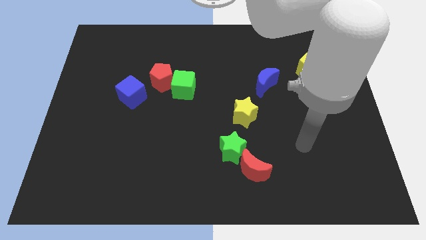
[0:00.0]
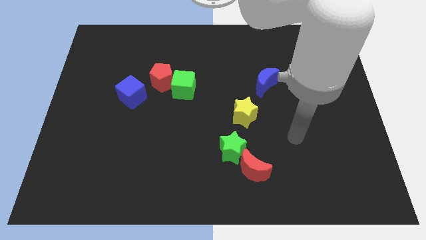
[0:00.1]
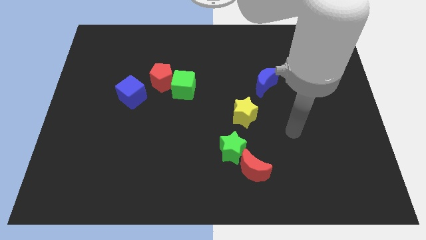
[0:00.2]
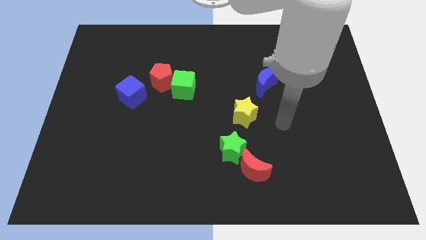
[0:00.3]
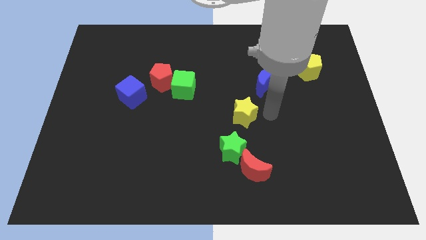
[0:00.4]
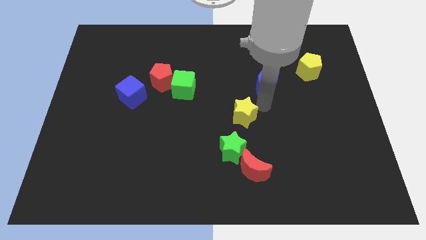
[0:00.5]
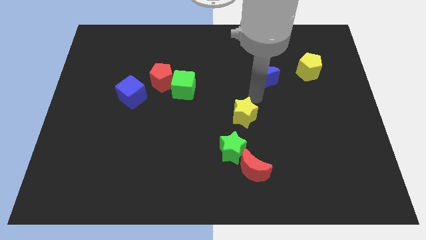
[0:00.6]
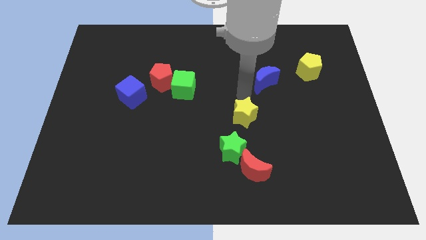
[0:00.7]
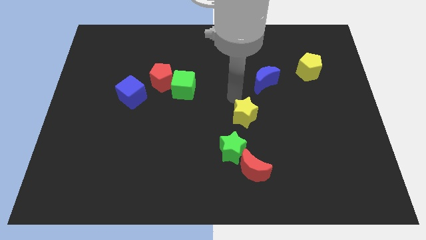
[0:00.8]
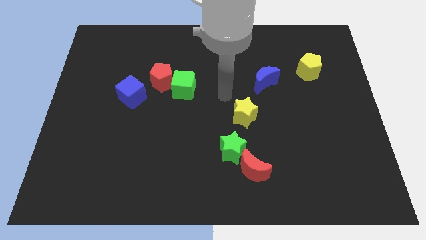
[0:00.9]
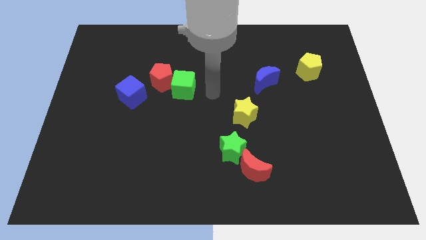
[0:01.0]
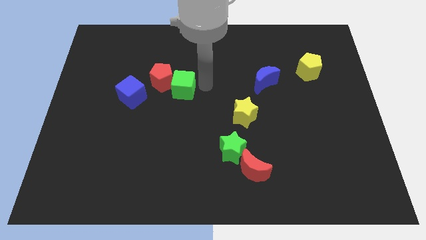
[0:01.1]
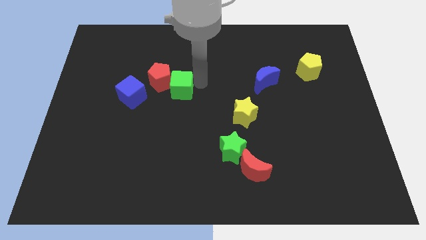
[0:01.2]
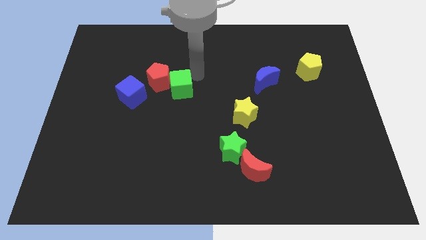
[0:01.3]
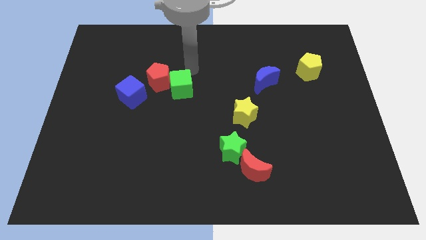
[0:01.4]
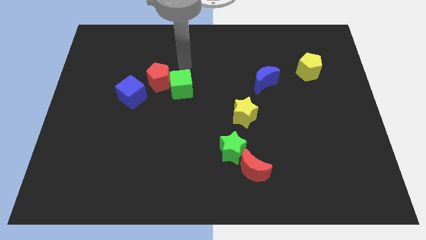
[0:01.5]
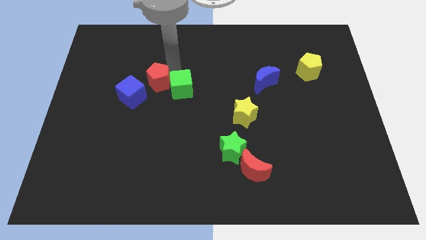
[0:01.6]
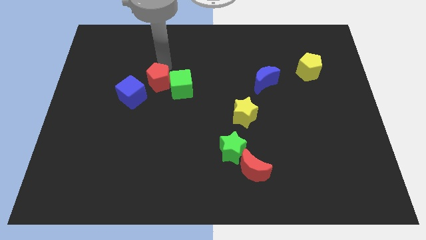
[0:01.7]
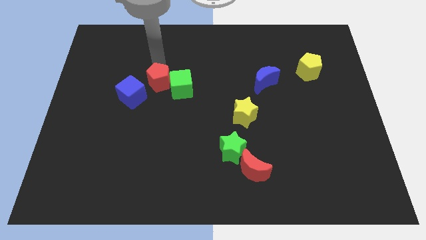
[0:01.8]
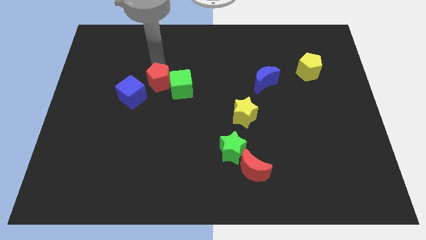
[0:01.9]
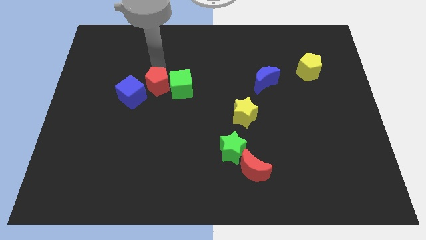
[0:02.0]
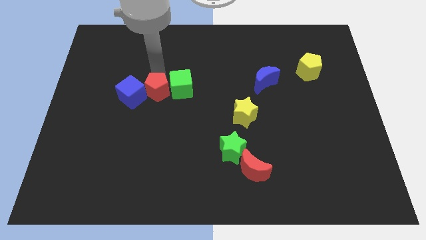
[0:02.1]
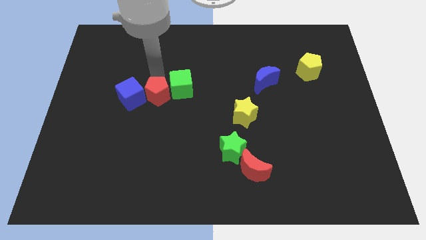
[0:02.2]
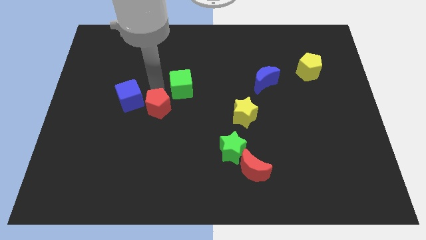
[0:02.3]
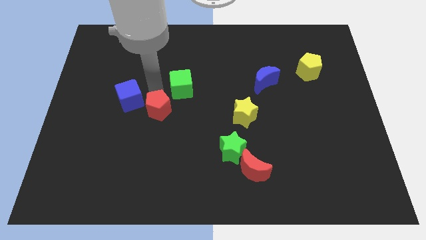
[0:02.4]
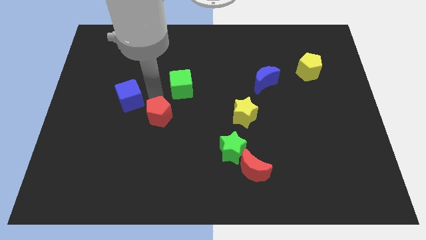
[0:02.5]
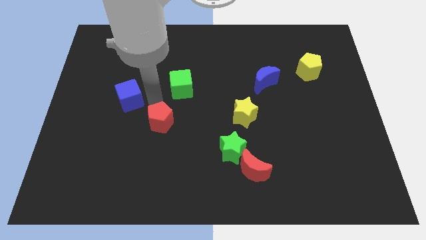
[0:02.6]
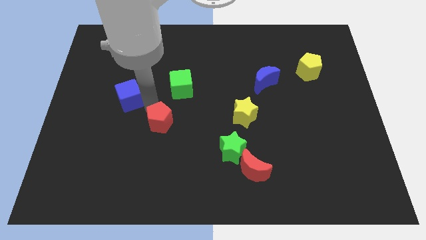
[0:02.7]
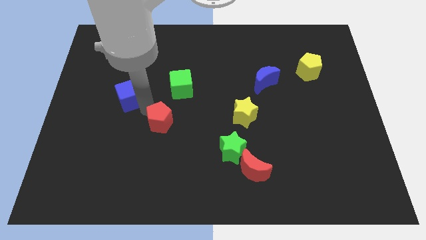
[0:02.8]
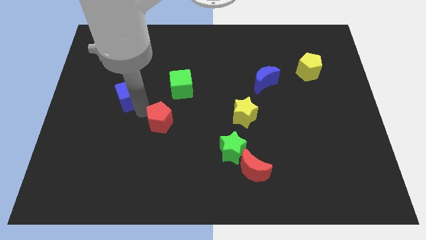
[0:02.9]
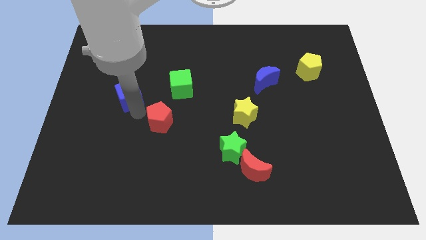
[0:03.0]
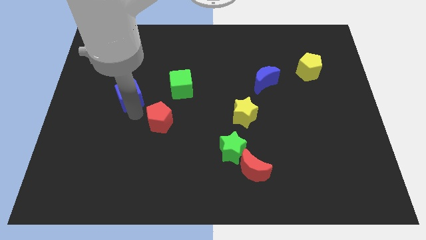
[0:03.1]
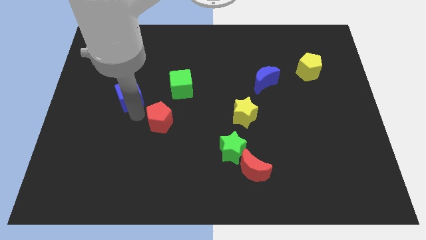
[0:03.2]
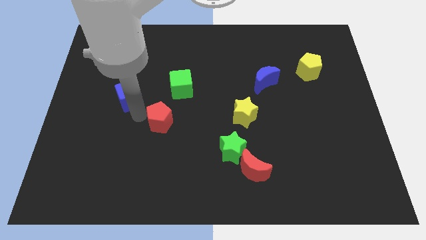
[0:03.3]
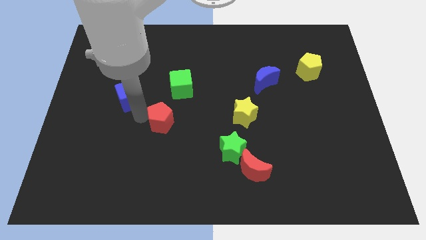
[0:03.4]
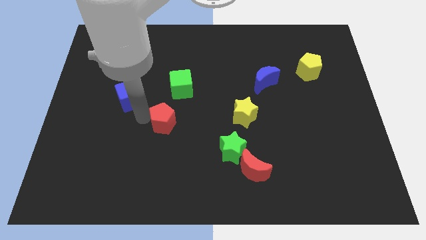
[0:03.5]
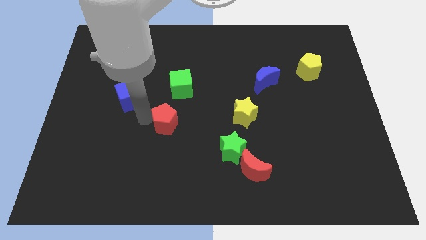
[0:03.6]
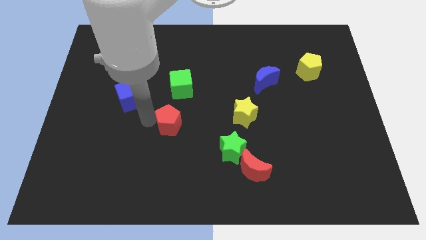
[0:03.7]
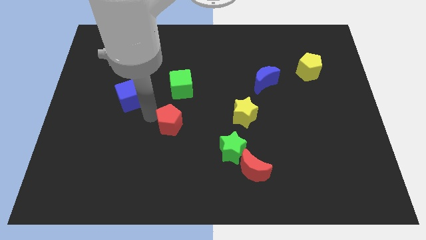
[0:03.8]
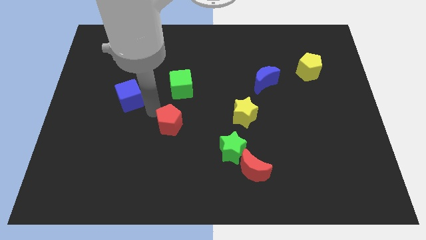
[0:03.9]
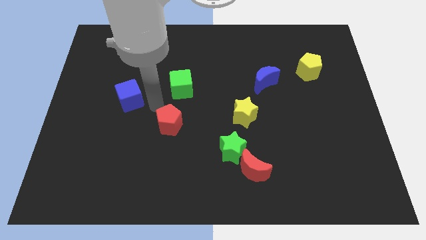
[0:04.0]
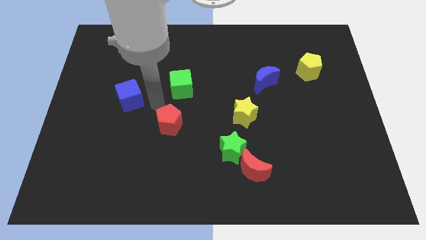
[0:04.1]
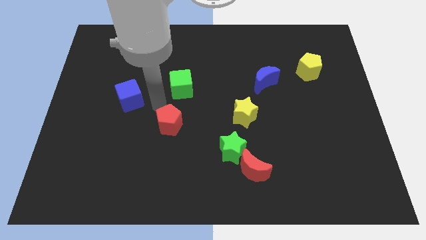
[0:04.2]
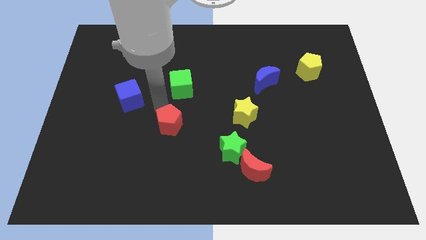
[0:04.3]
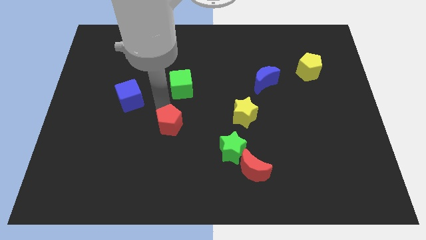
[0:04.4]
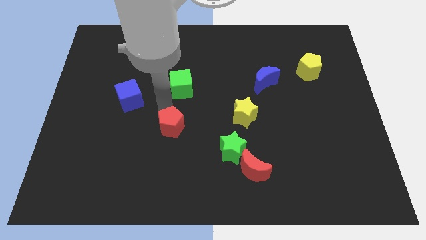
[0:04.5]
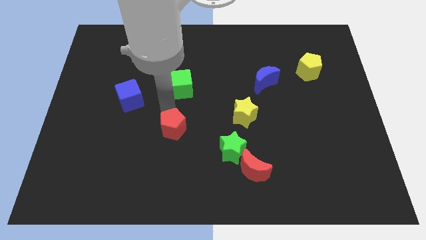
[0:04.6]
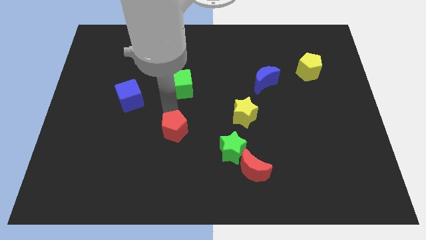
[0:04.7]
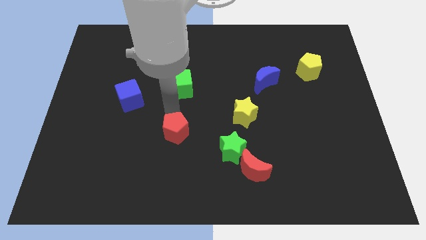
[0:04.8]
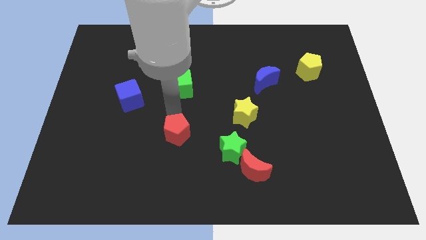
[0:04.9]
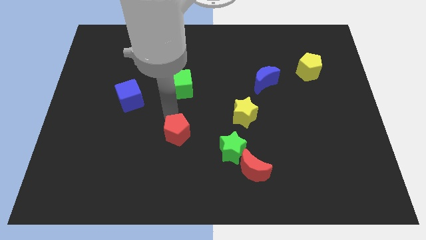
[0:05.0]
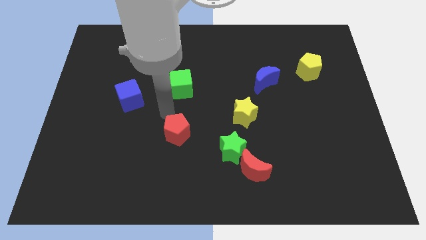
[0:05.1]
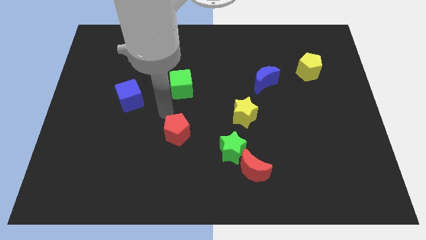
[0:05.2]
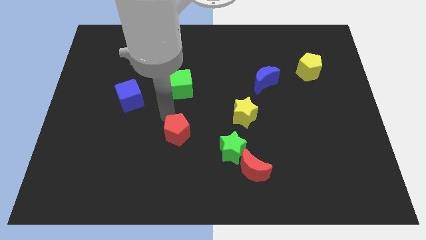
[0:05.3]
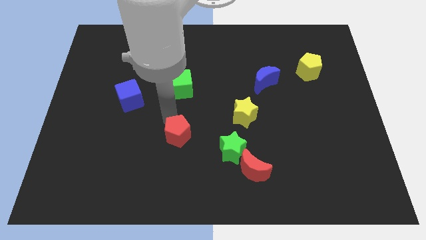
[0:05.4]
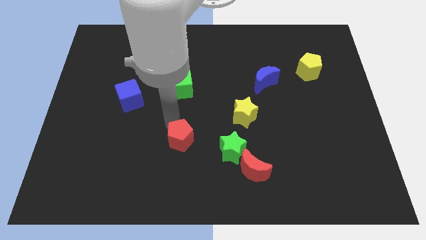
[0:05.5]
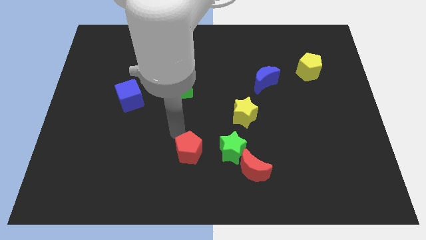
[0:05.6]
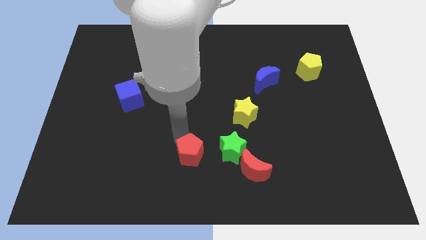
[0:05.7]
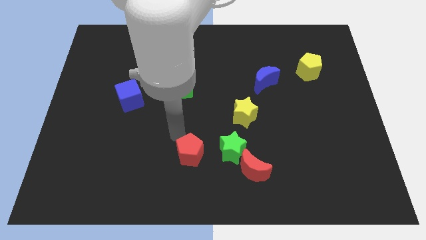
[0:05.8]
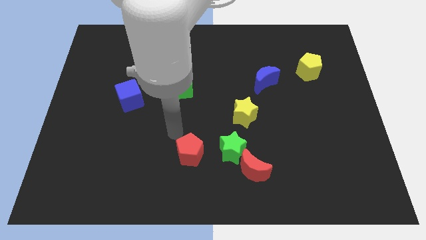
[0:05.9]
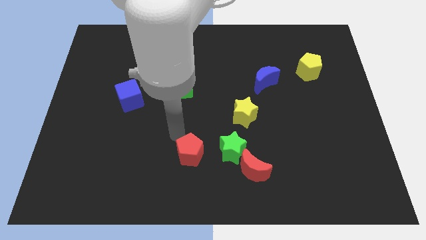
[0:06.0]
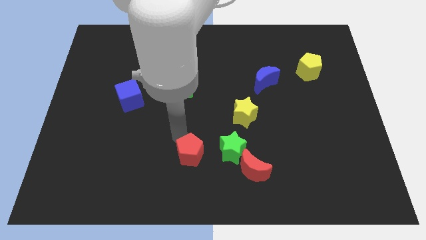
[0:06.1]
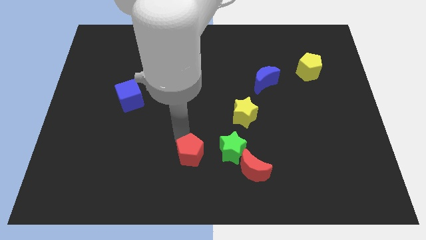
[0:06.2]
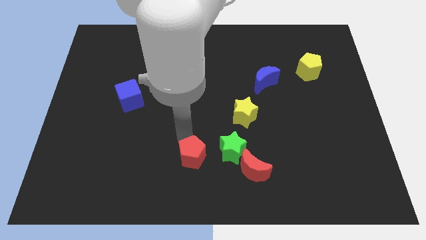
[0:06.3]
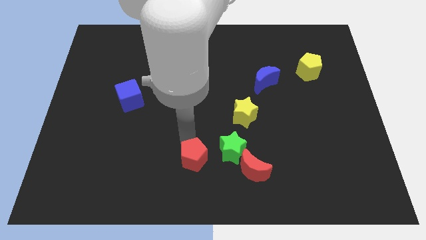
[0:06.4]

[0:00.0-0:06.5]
move the red pentagon to the bottom left of the green star

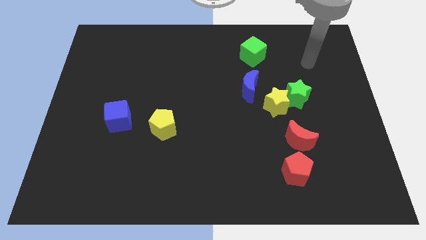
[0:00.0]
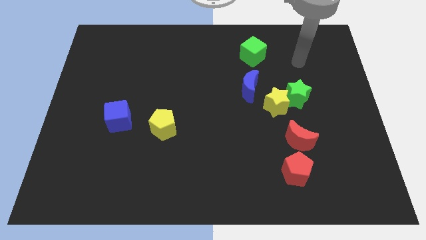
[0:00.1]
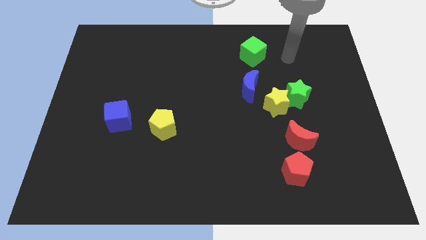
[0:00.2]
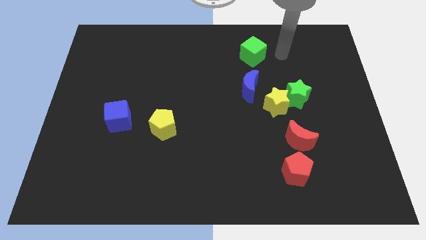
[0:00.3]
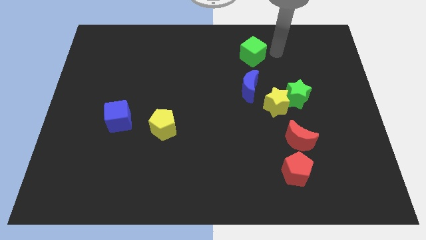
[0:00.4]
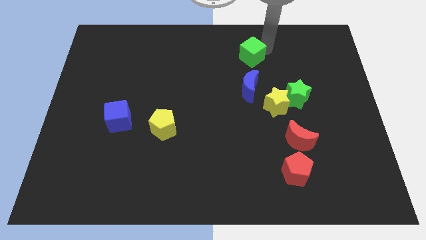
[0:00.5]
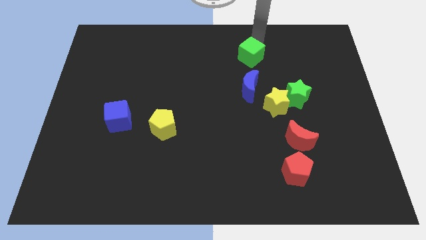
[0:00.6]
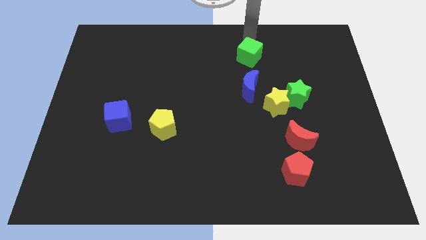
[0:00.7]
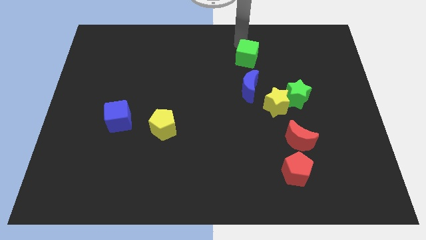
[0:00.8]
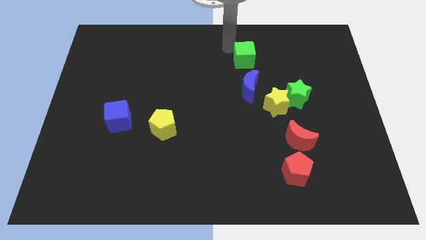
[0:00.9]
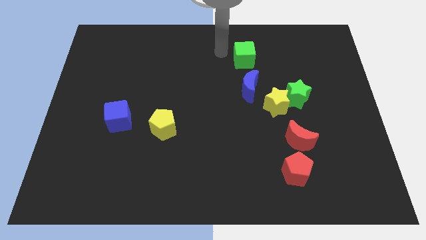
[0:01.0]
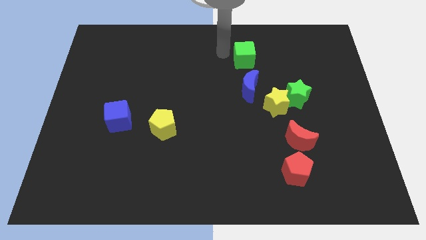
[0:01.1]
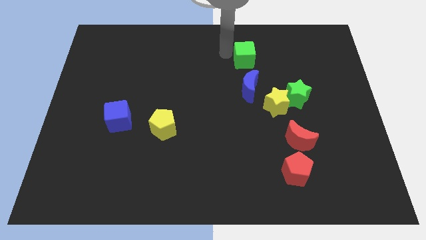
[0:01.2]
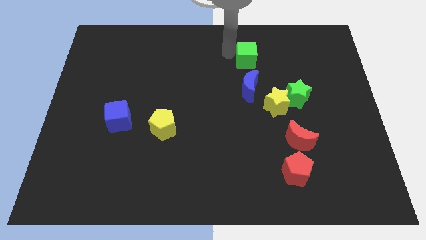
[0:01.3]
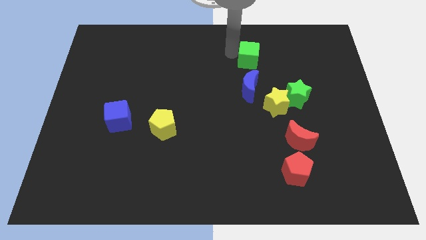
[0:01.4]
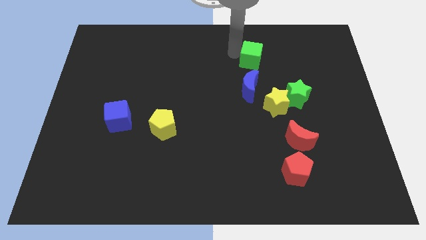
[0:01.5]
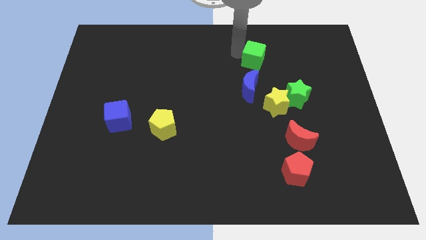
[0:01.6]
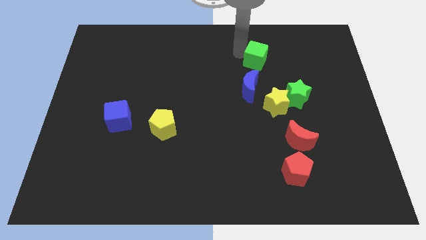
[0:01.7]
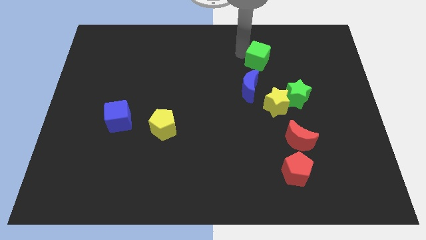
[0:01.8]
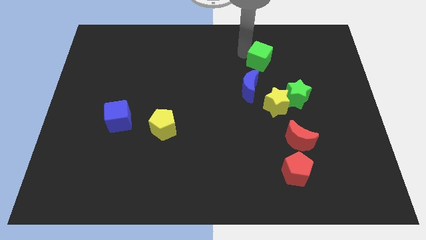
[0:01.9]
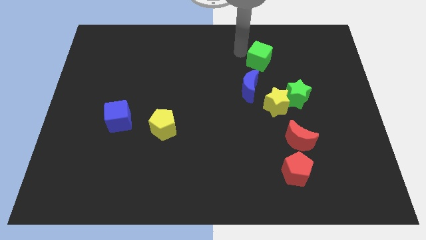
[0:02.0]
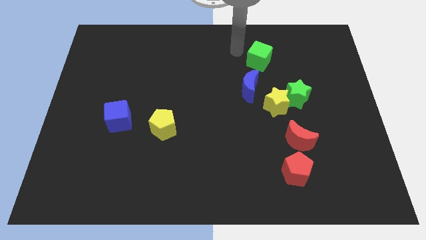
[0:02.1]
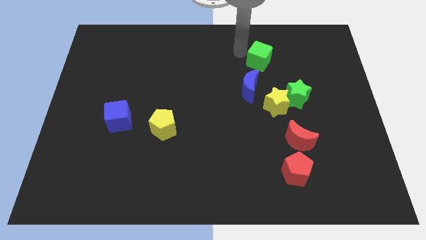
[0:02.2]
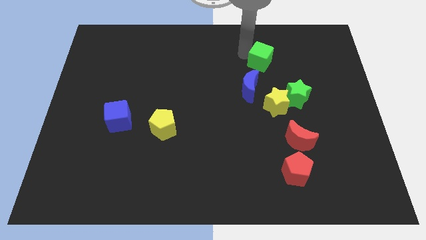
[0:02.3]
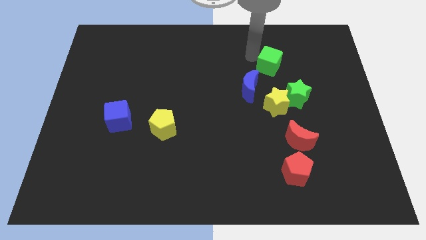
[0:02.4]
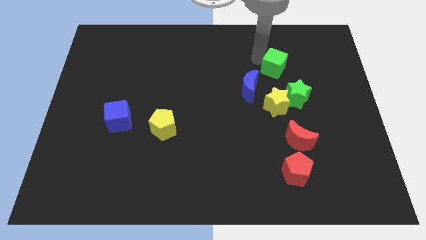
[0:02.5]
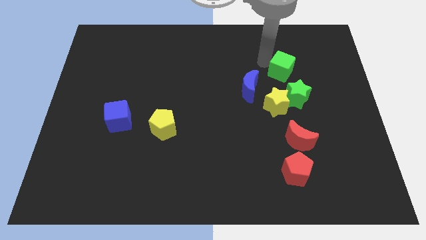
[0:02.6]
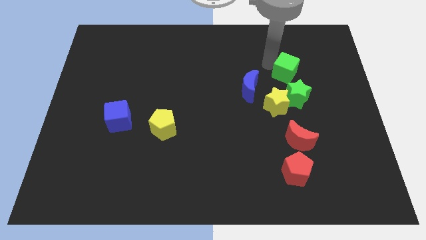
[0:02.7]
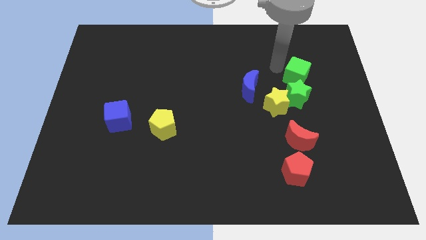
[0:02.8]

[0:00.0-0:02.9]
push the green cube to the top right of the green star
